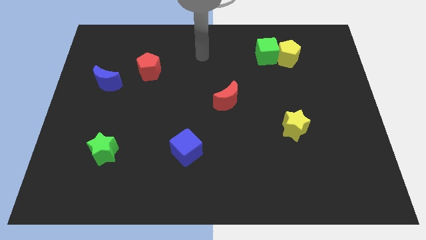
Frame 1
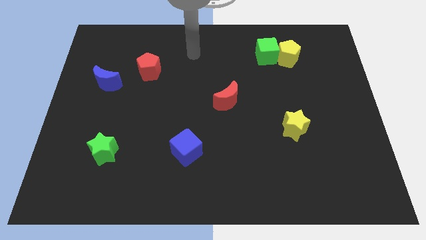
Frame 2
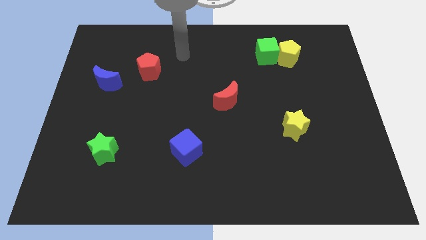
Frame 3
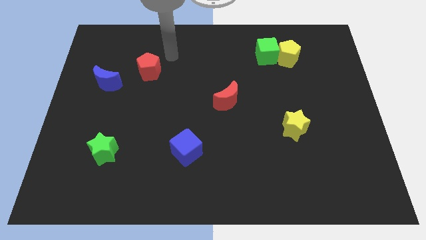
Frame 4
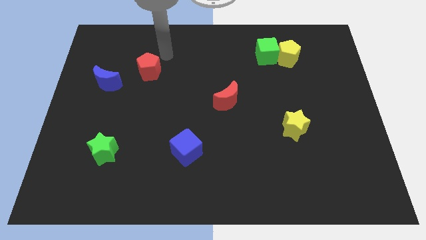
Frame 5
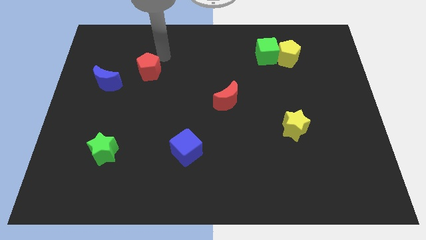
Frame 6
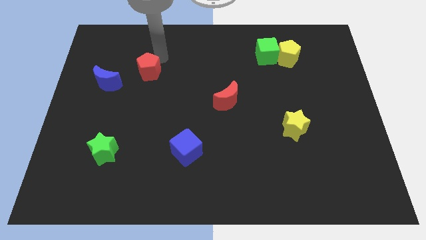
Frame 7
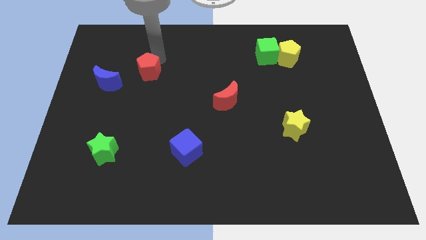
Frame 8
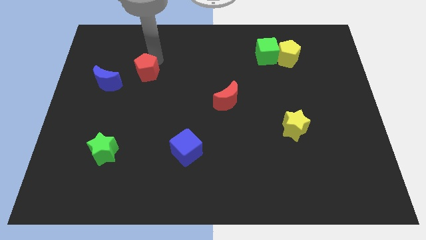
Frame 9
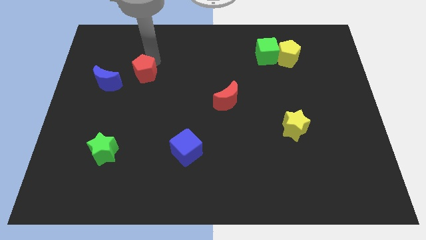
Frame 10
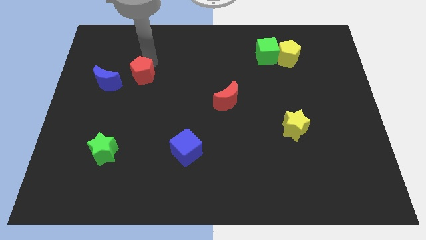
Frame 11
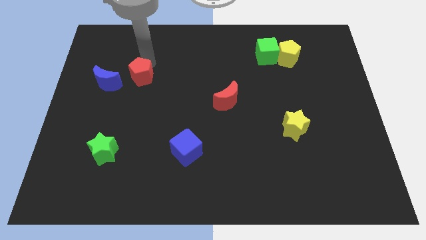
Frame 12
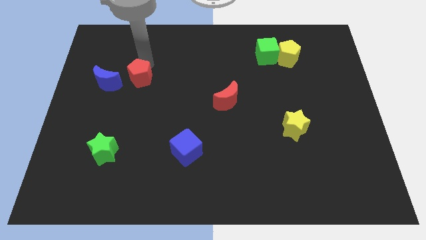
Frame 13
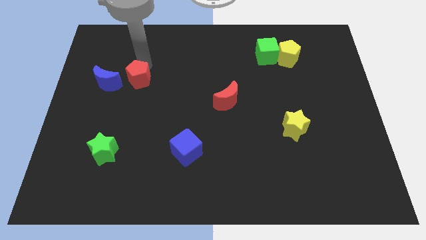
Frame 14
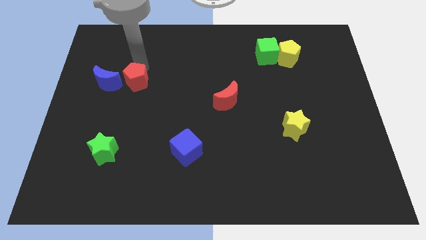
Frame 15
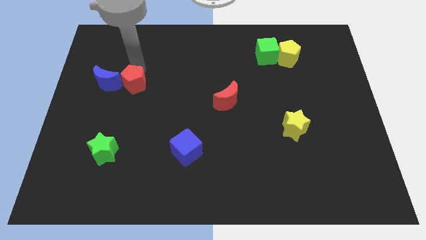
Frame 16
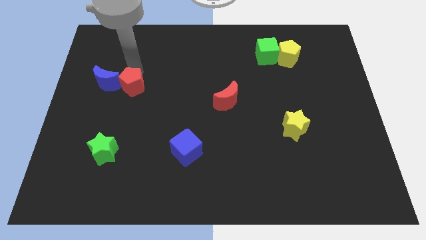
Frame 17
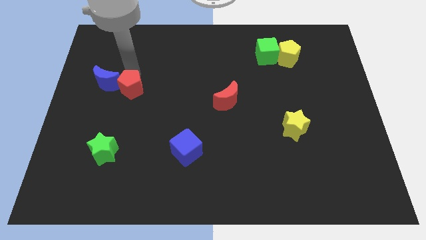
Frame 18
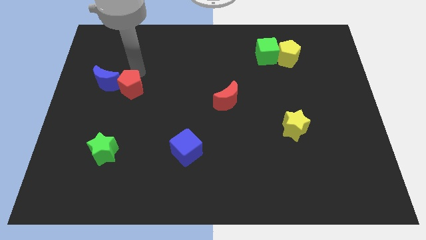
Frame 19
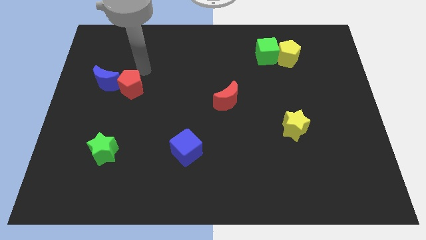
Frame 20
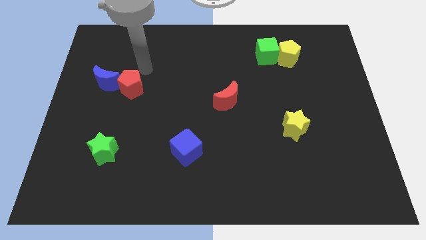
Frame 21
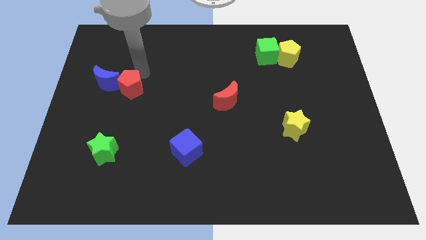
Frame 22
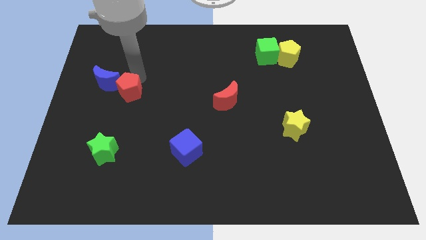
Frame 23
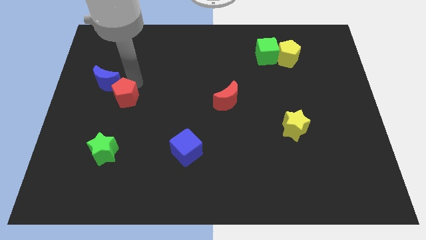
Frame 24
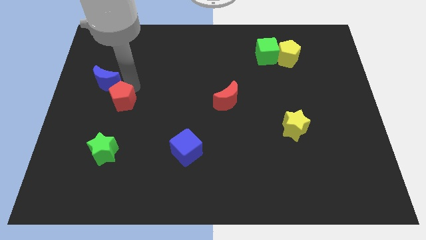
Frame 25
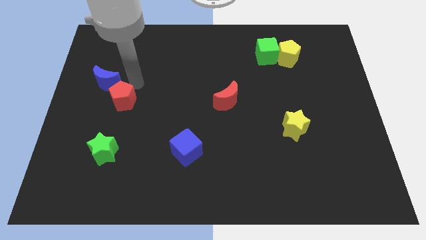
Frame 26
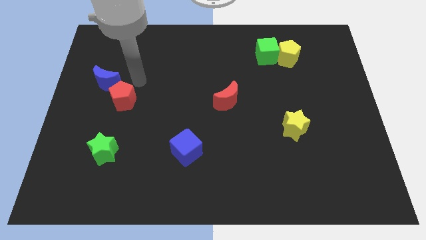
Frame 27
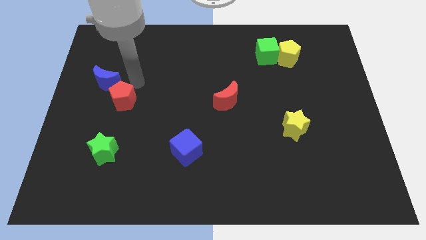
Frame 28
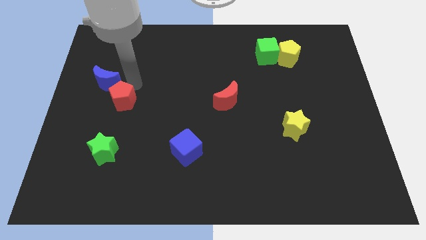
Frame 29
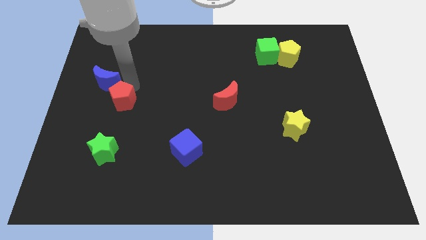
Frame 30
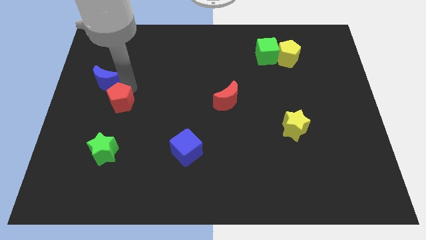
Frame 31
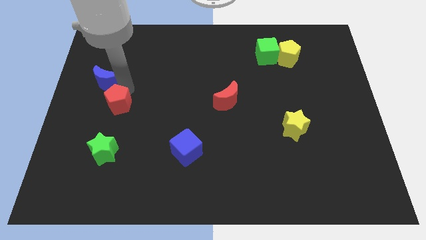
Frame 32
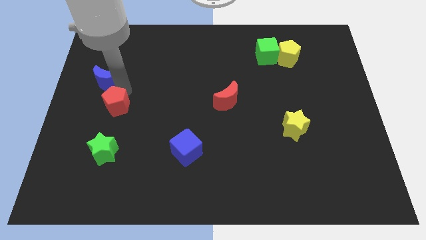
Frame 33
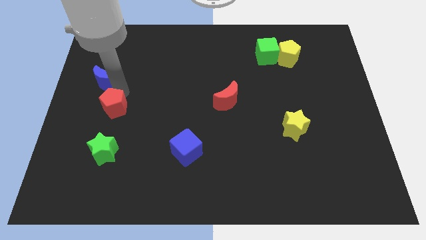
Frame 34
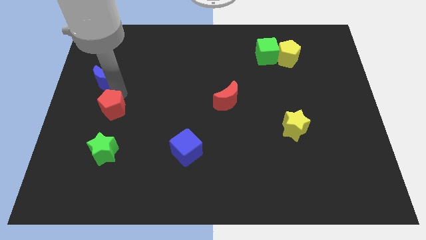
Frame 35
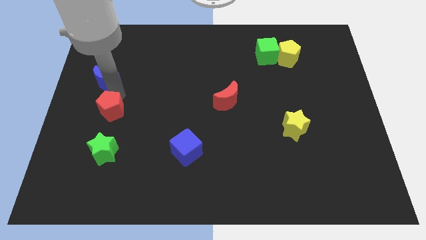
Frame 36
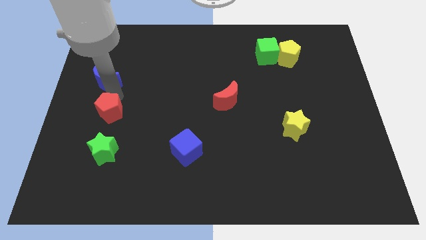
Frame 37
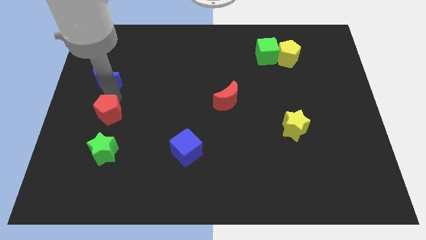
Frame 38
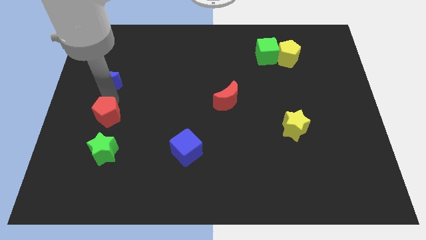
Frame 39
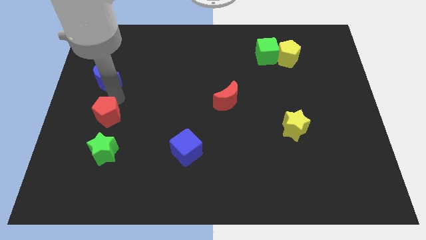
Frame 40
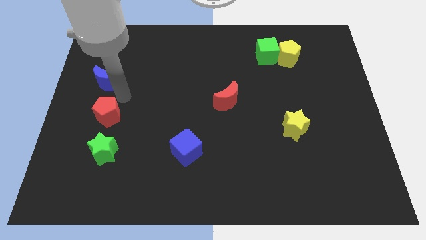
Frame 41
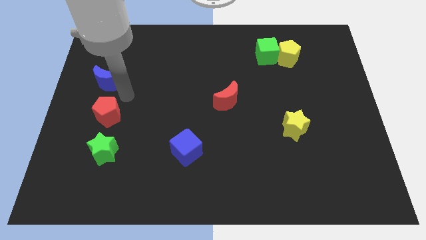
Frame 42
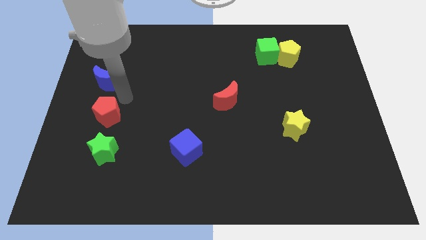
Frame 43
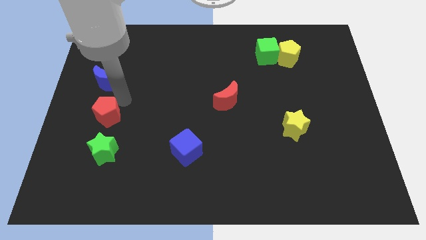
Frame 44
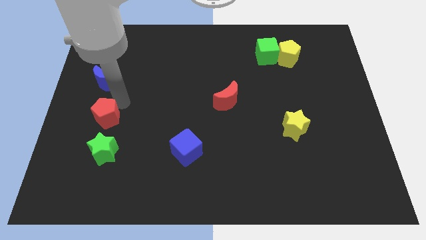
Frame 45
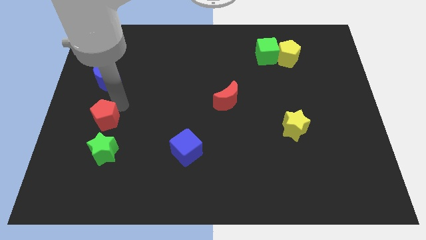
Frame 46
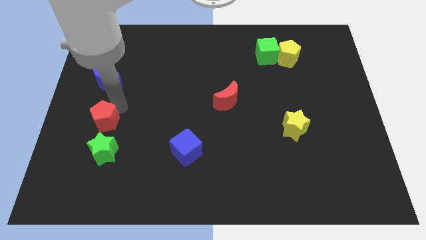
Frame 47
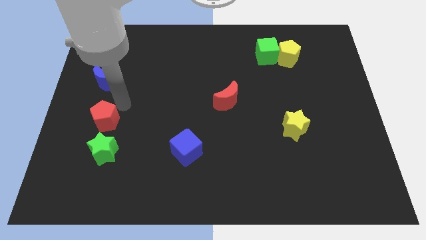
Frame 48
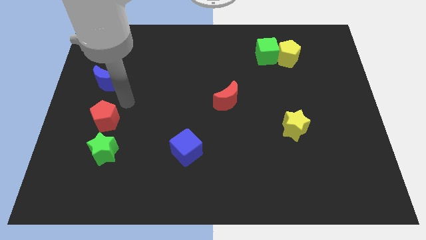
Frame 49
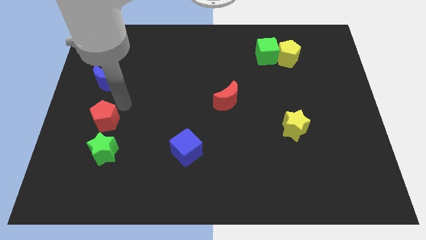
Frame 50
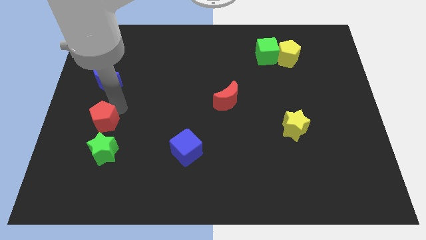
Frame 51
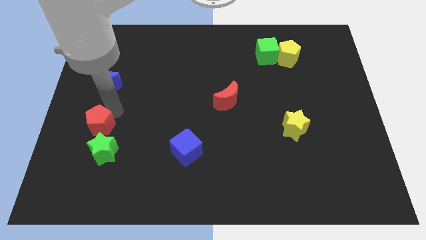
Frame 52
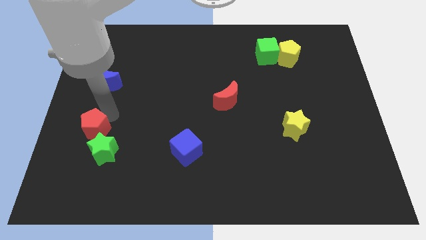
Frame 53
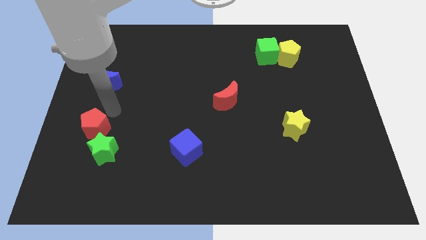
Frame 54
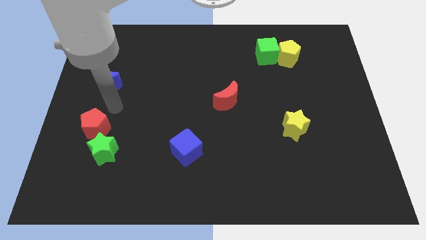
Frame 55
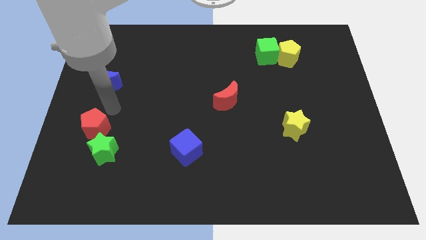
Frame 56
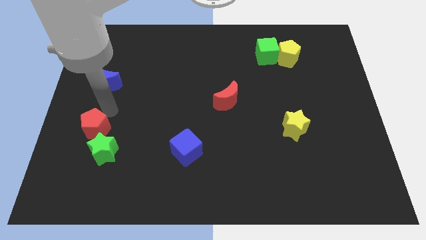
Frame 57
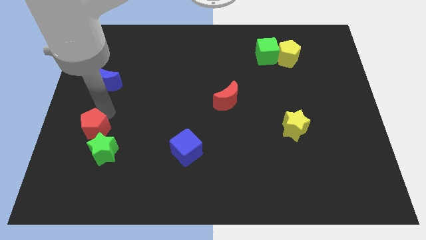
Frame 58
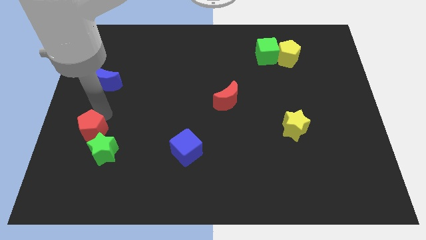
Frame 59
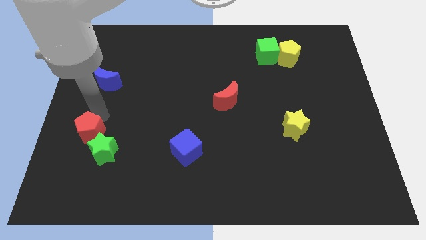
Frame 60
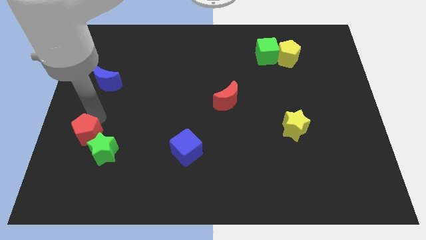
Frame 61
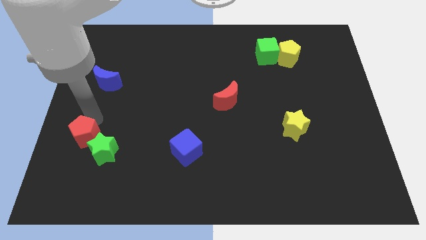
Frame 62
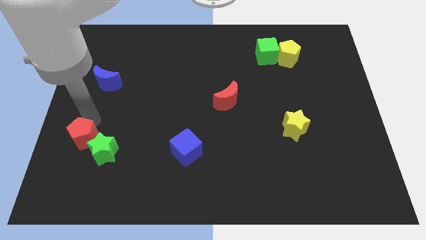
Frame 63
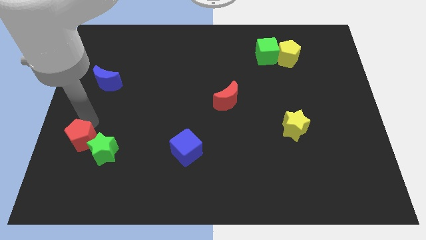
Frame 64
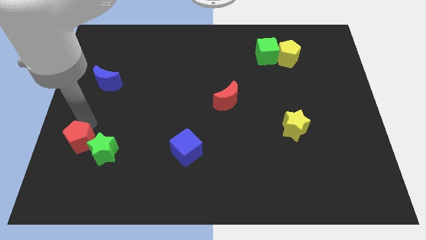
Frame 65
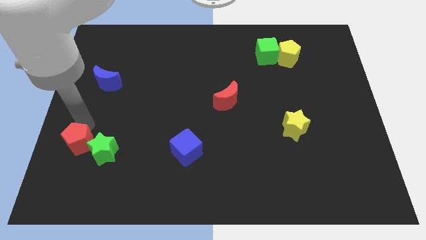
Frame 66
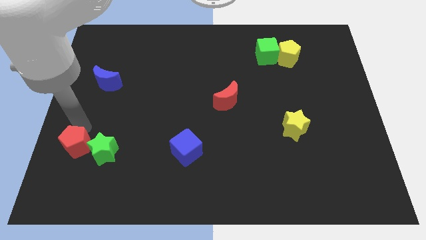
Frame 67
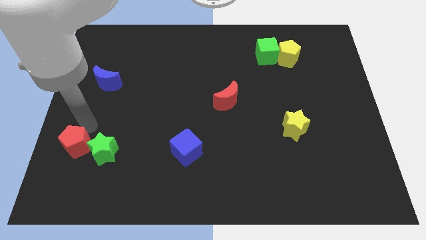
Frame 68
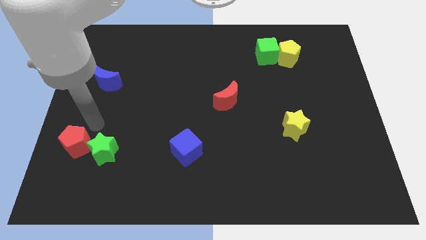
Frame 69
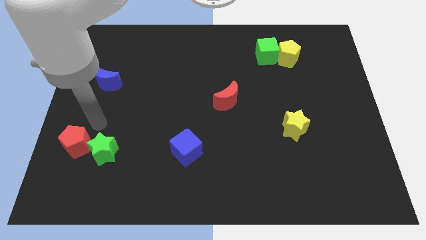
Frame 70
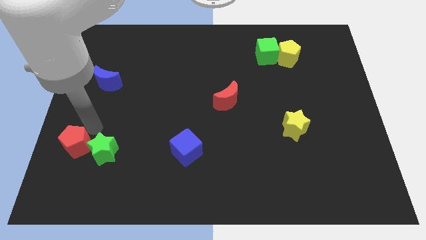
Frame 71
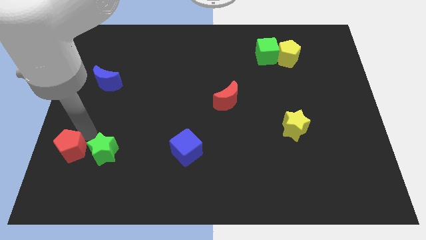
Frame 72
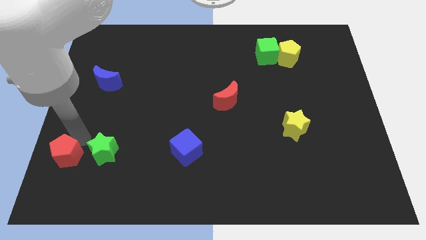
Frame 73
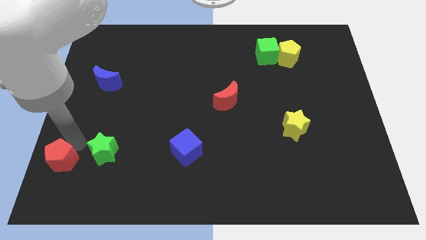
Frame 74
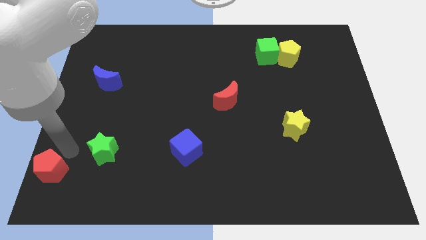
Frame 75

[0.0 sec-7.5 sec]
push the red pentagon to the bottom left corner
